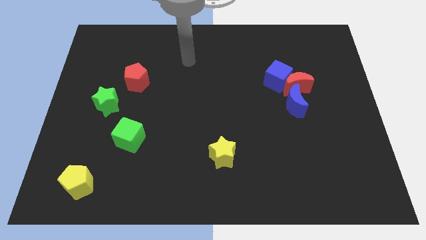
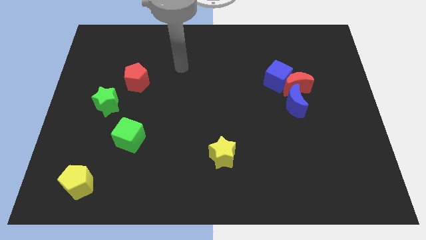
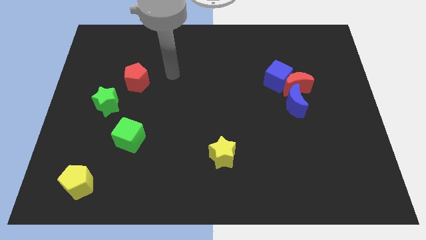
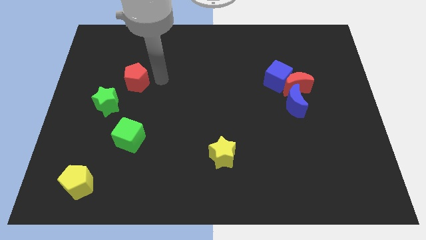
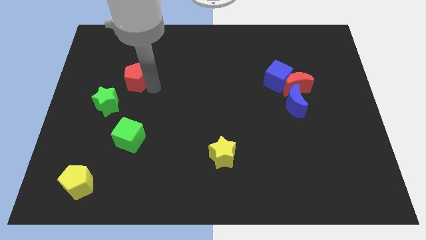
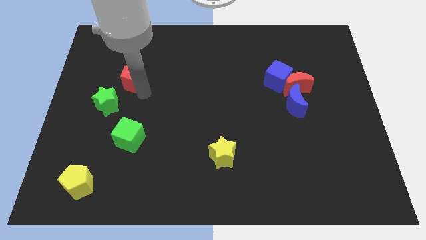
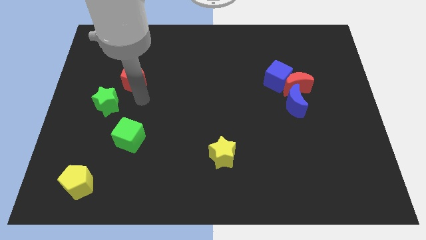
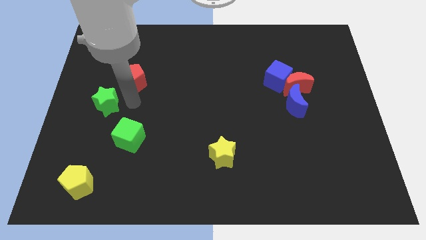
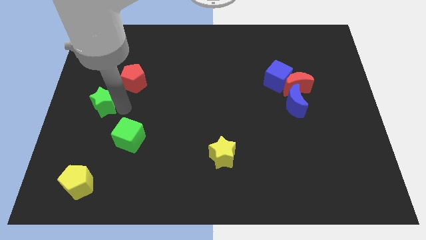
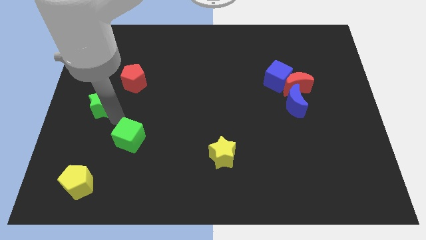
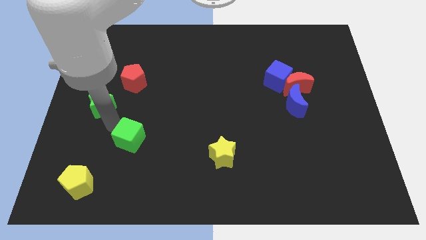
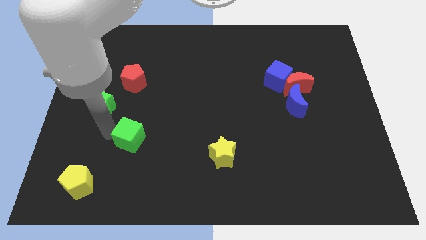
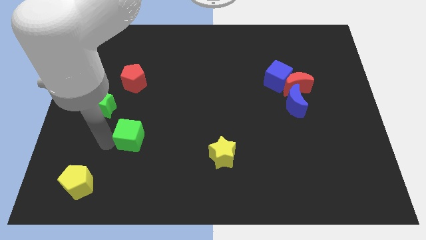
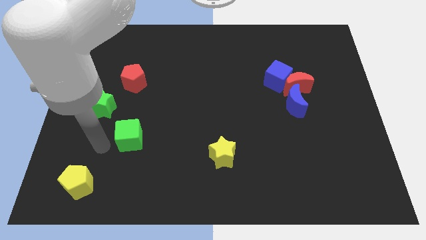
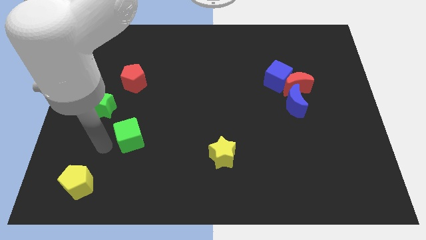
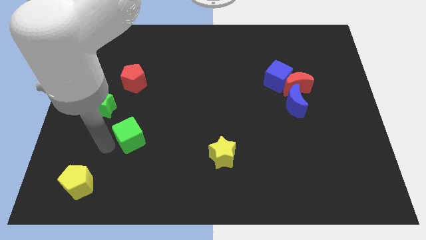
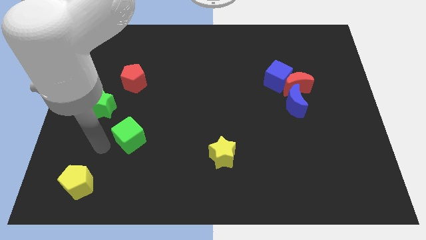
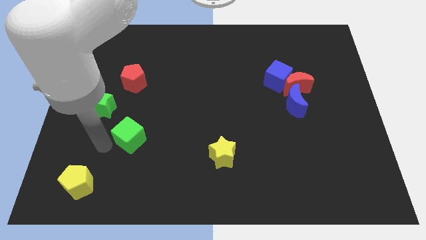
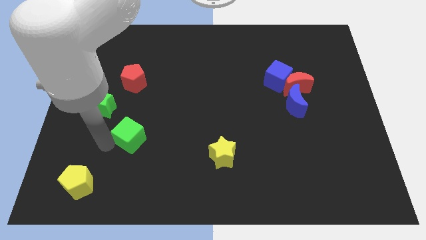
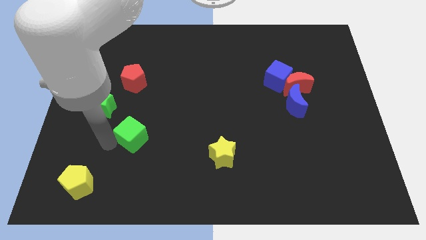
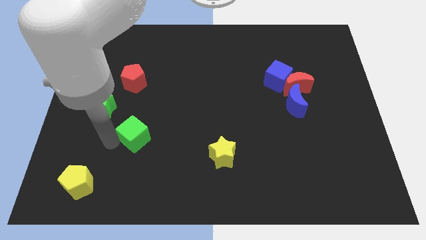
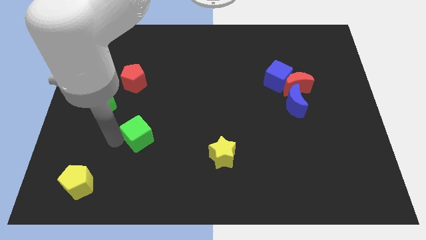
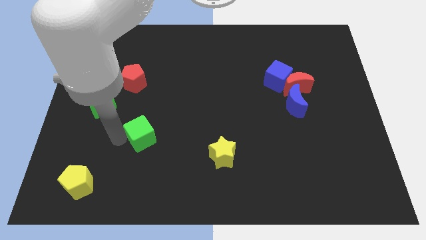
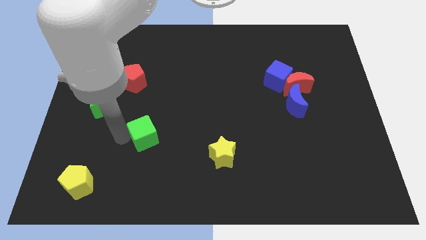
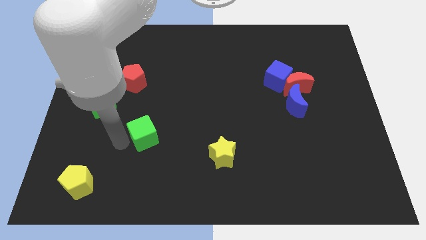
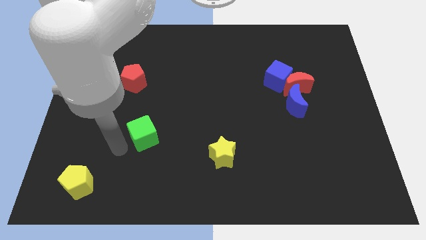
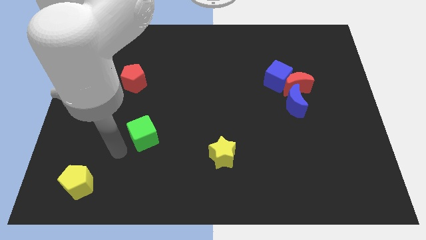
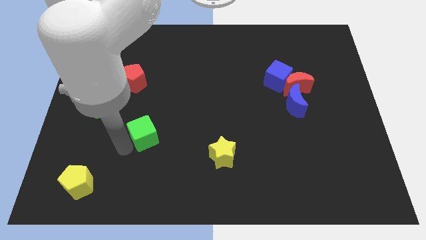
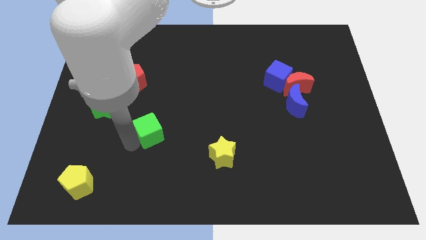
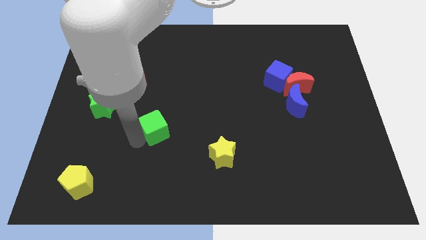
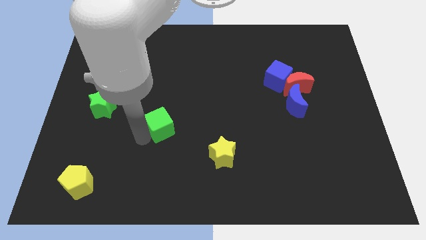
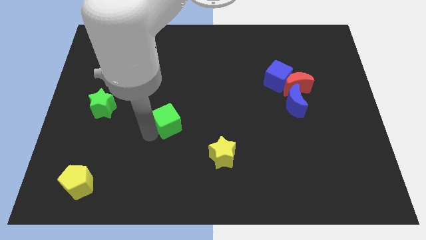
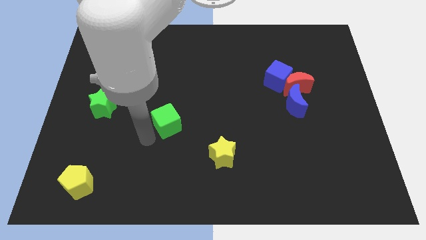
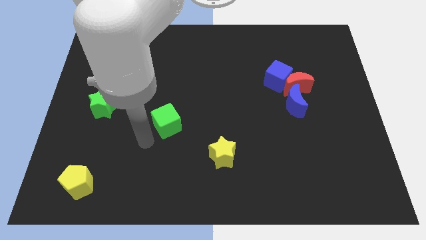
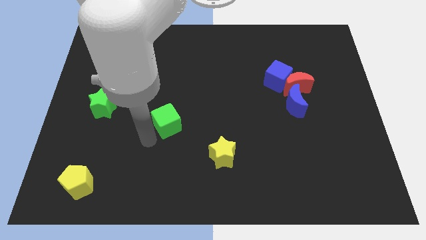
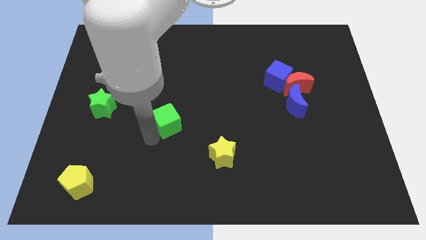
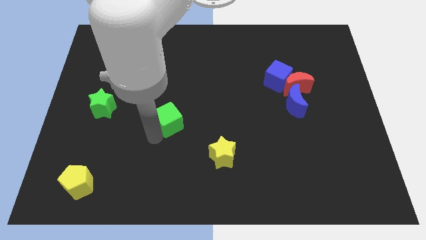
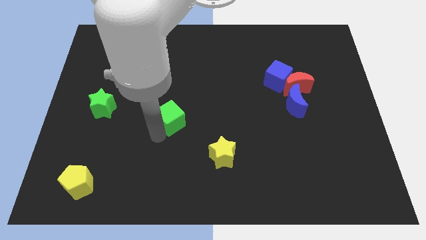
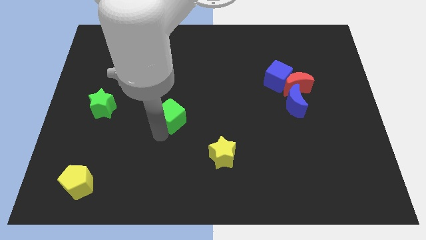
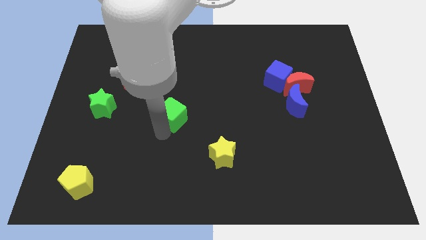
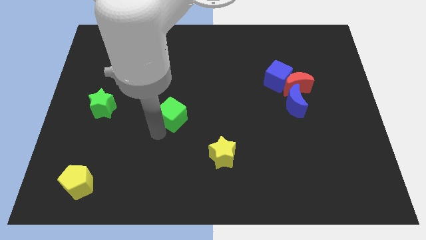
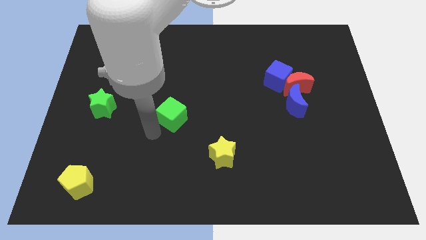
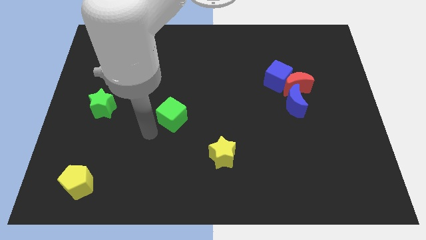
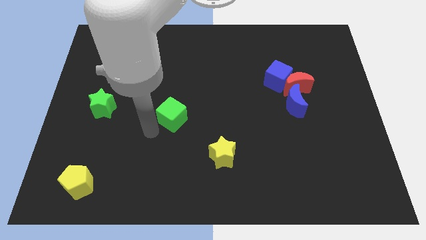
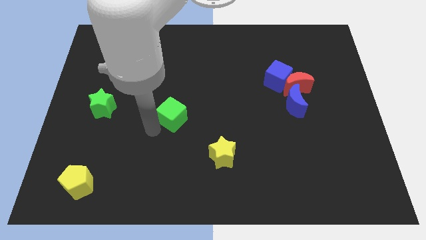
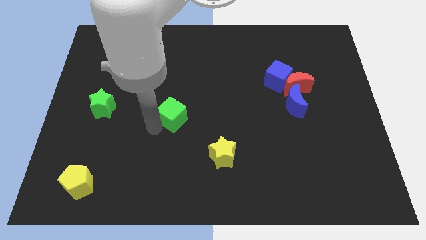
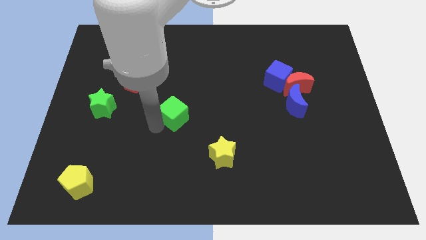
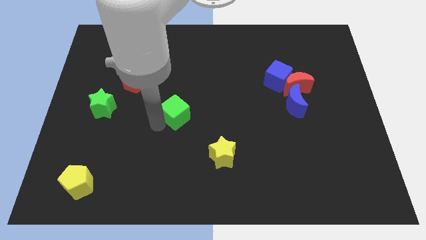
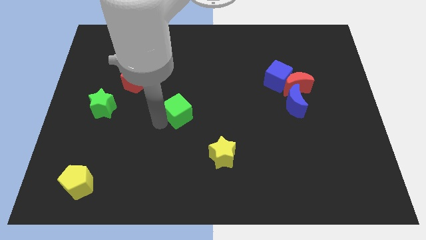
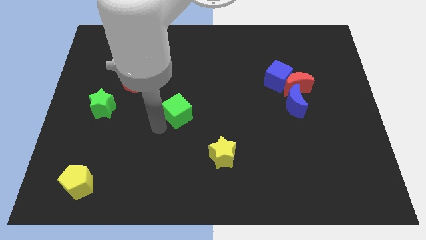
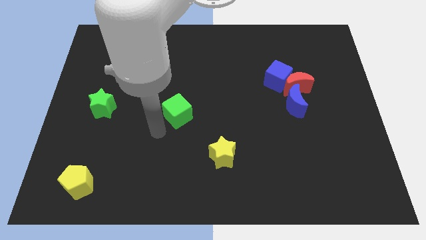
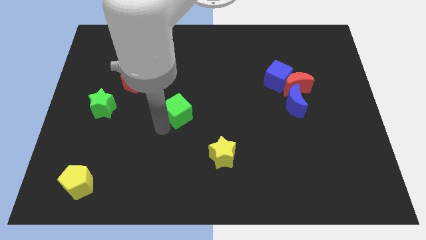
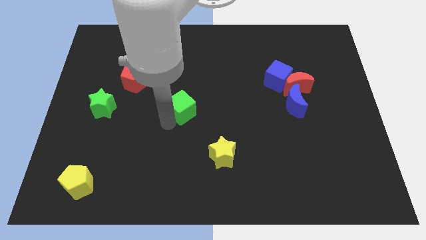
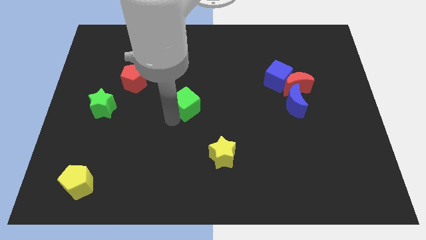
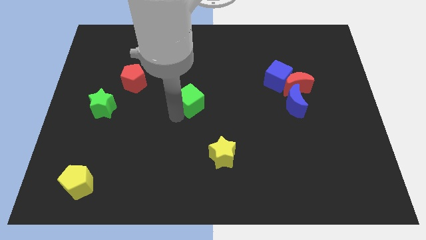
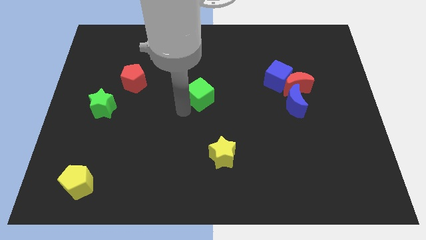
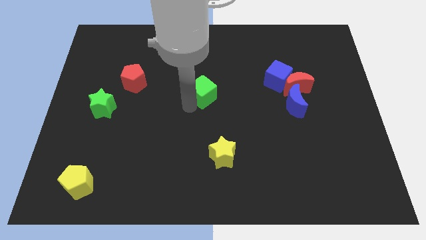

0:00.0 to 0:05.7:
slide the green cube upwards and to the right

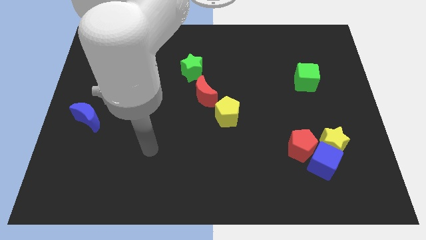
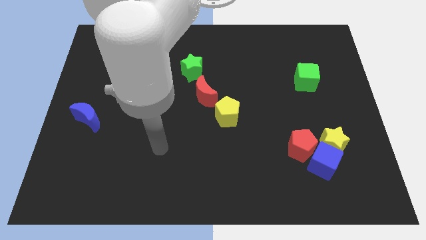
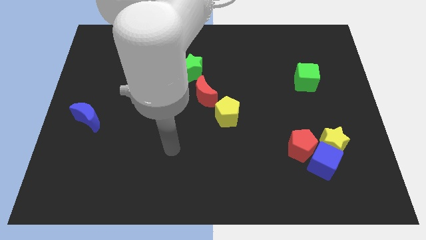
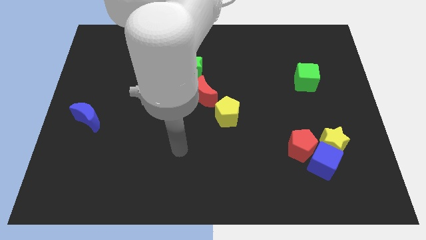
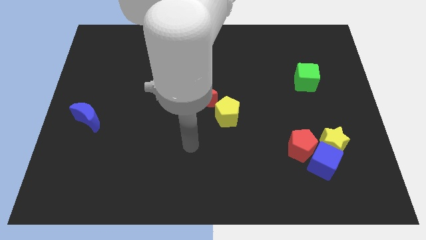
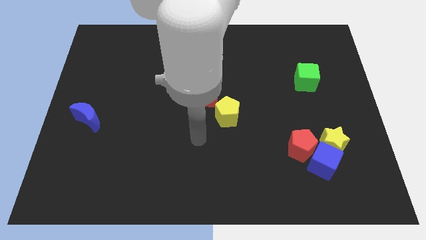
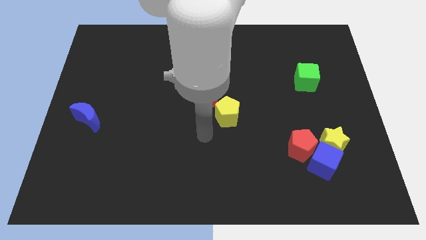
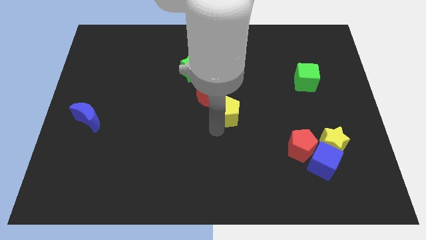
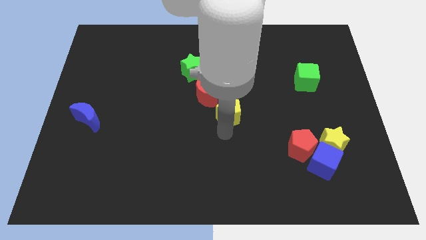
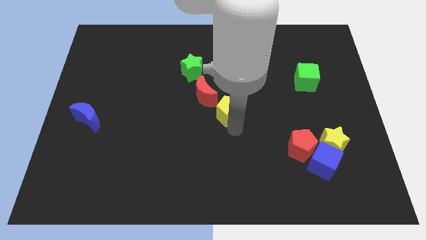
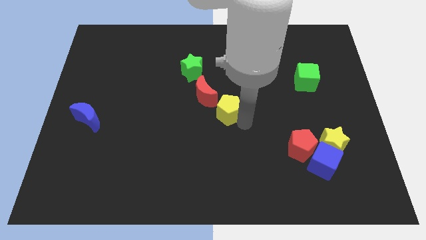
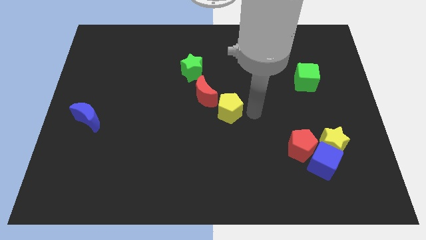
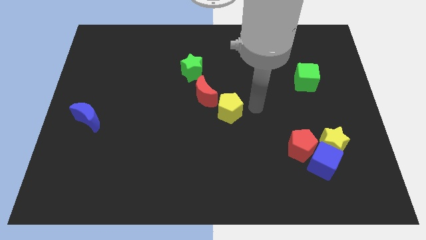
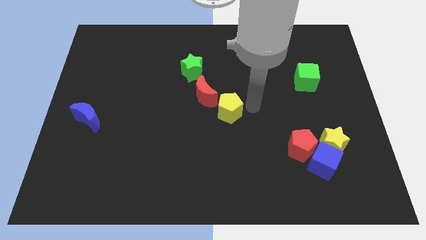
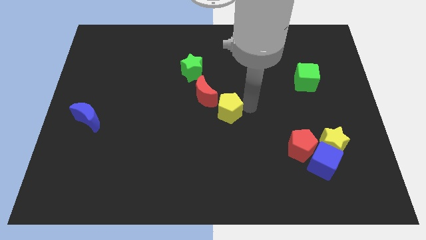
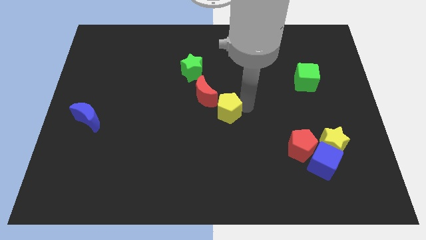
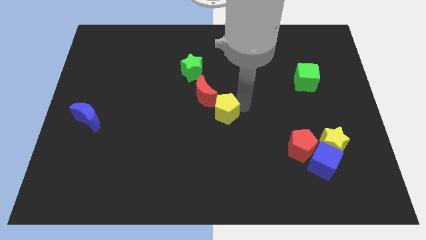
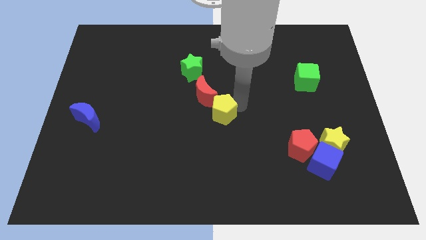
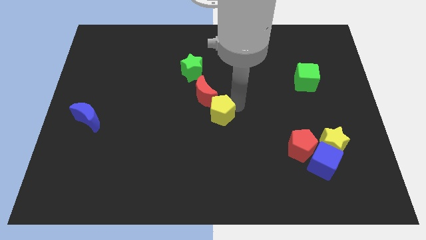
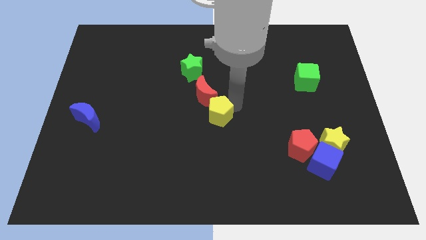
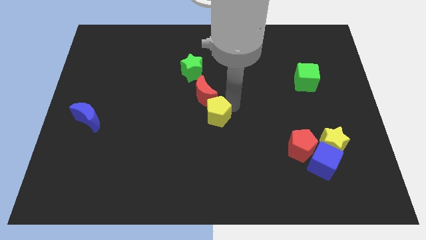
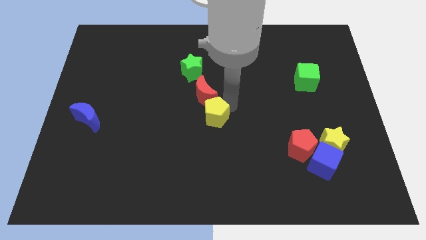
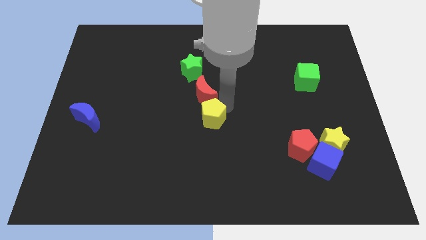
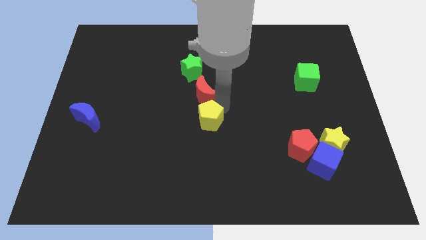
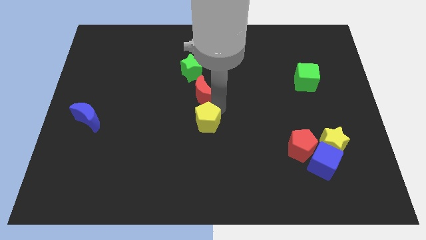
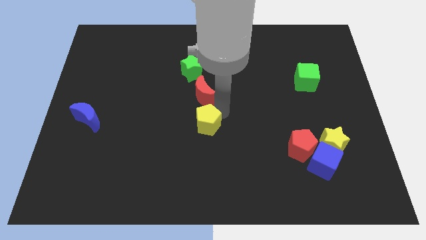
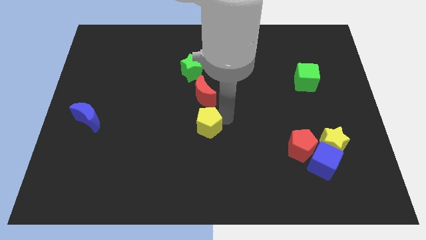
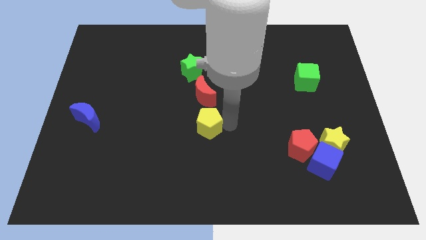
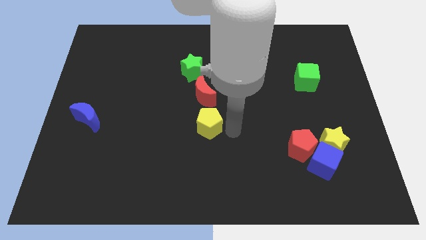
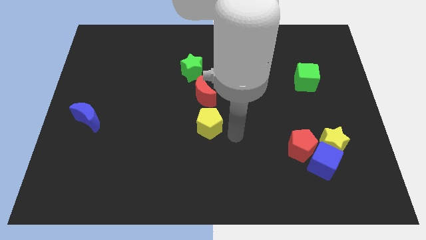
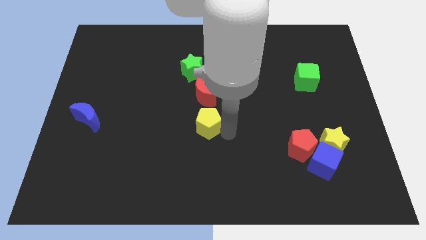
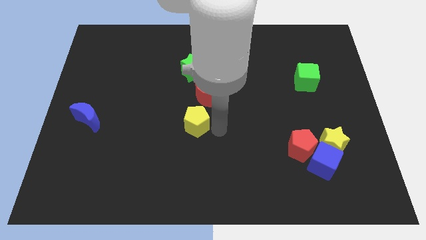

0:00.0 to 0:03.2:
slide the yellow pentagon a little bit to the left
